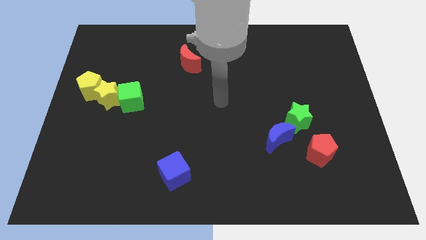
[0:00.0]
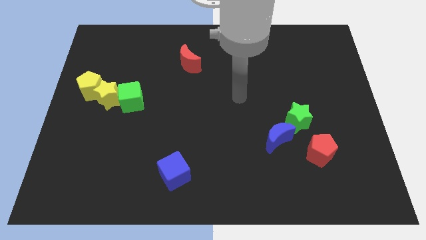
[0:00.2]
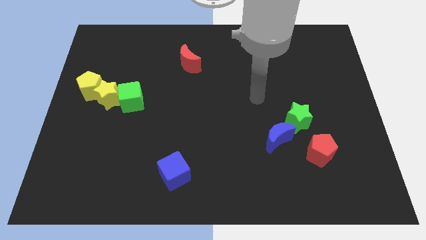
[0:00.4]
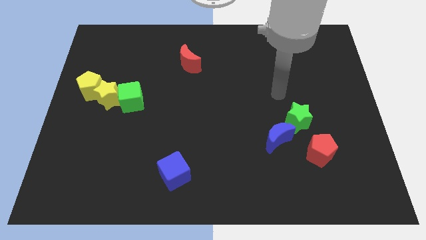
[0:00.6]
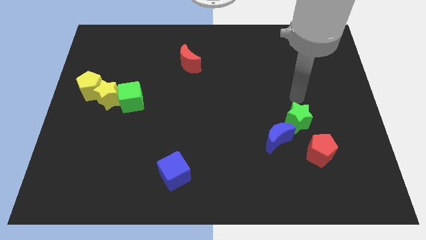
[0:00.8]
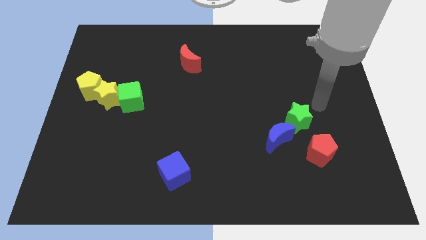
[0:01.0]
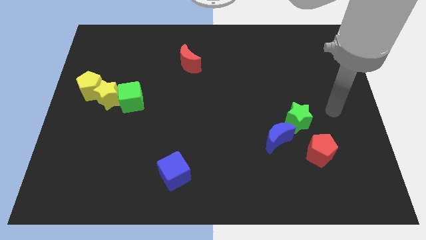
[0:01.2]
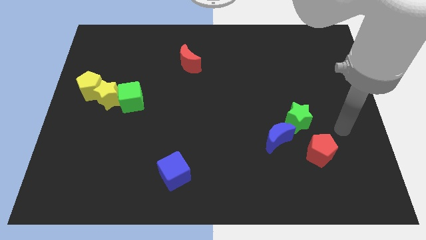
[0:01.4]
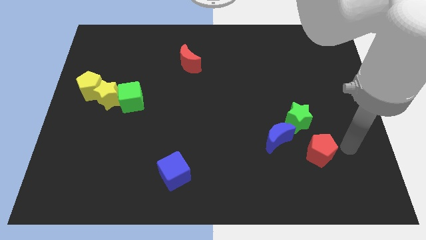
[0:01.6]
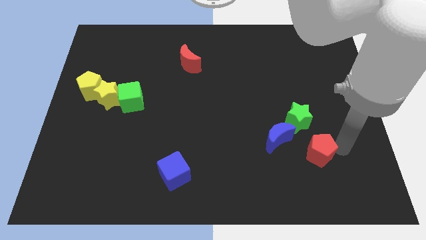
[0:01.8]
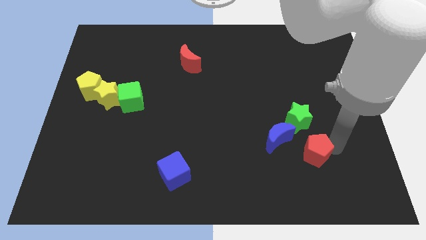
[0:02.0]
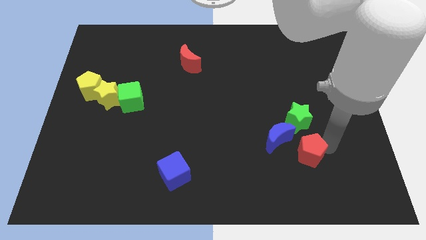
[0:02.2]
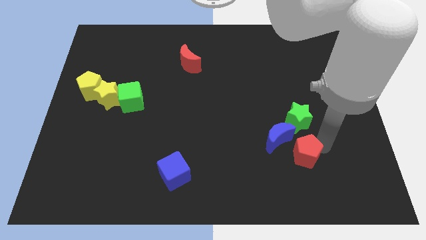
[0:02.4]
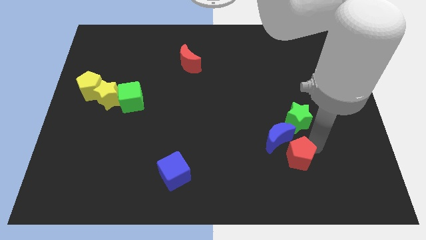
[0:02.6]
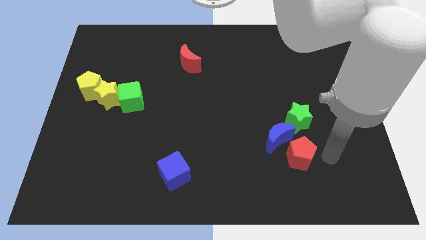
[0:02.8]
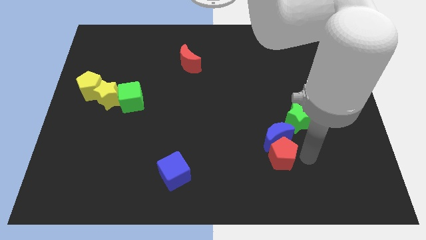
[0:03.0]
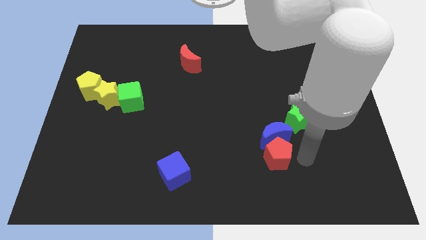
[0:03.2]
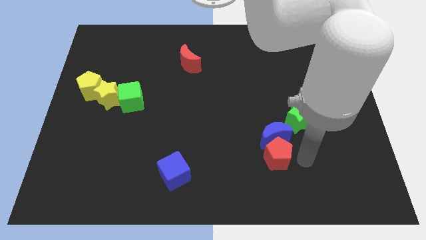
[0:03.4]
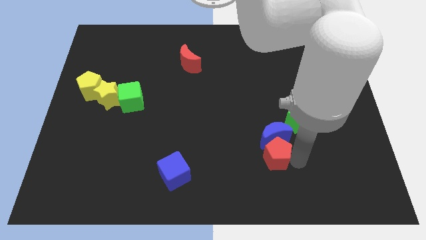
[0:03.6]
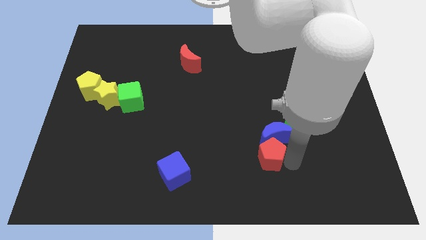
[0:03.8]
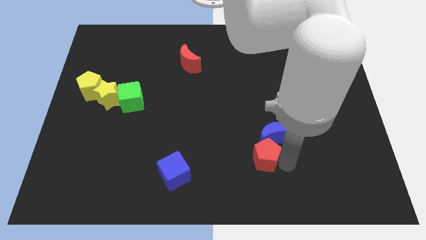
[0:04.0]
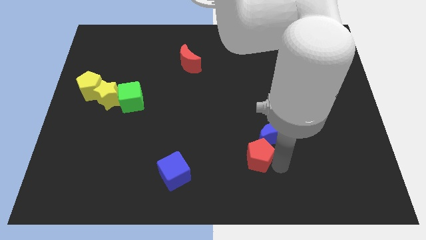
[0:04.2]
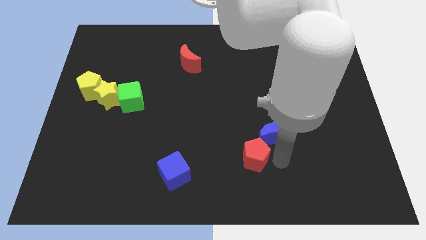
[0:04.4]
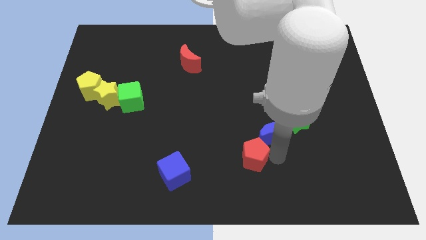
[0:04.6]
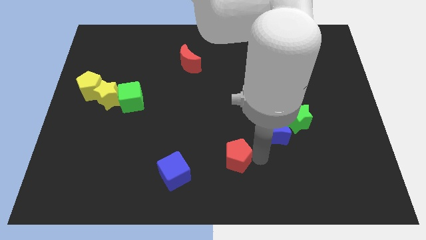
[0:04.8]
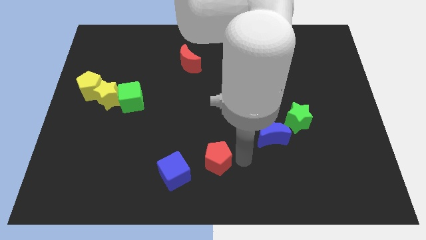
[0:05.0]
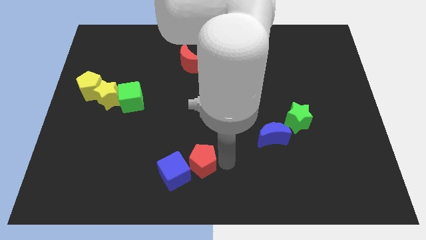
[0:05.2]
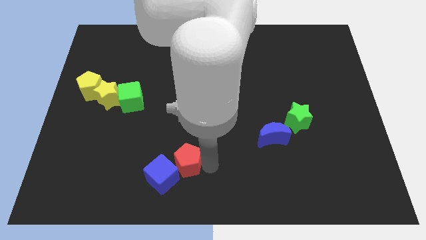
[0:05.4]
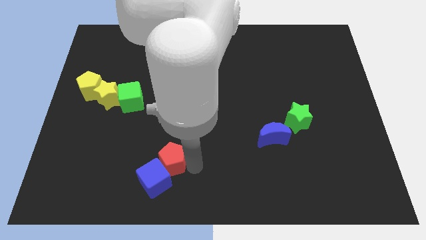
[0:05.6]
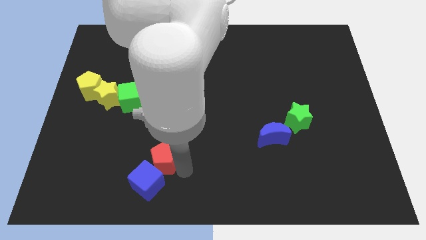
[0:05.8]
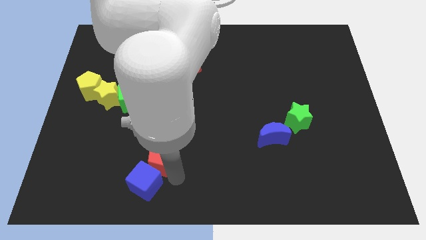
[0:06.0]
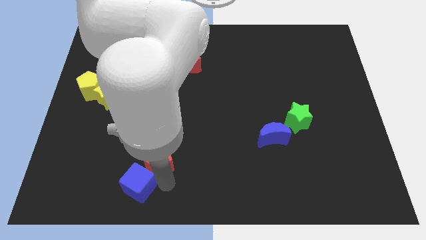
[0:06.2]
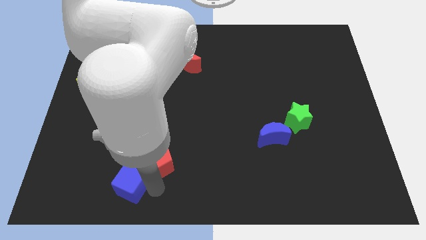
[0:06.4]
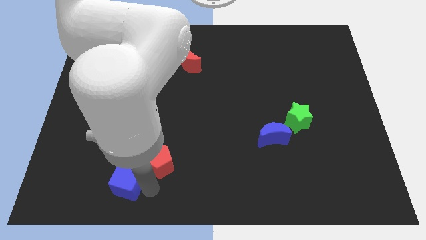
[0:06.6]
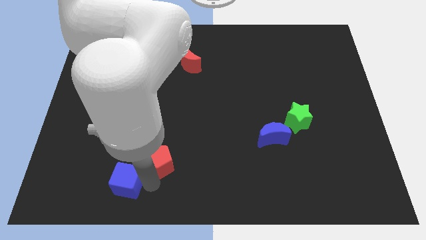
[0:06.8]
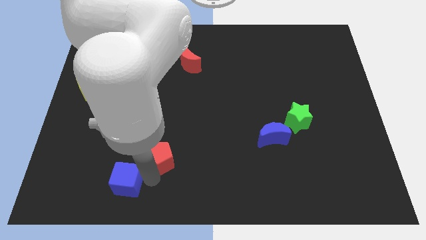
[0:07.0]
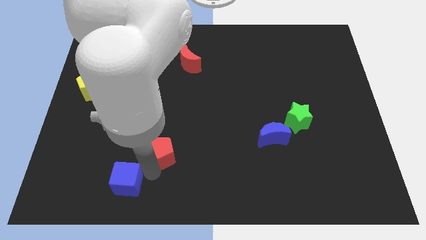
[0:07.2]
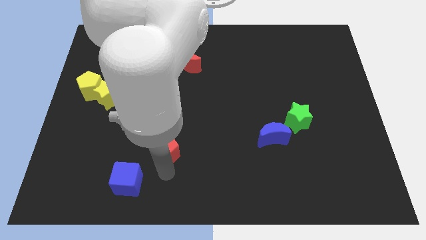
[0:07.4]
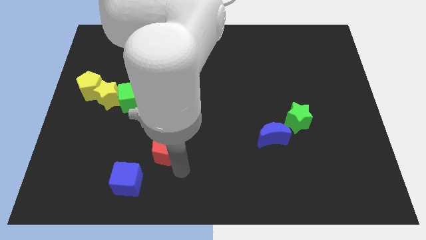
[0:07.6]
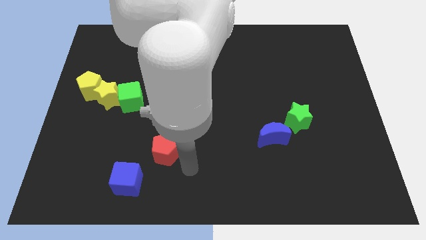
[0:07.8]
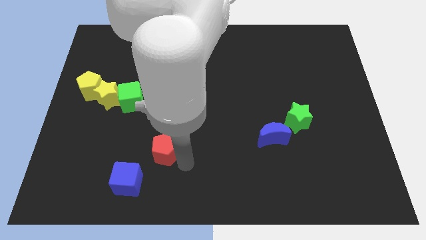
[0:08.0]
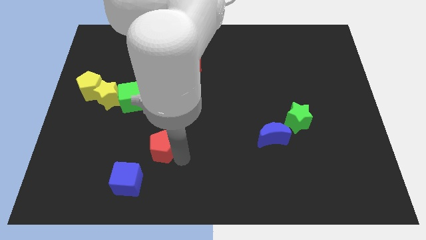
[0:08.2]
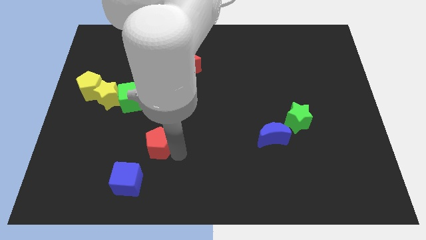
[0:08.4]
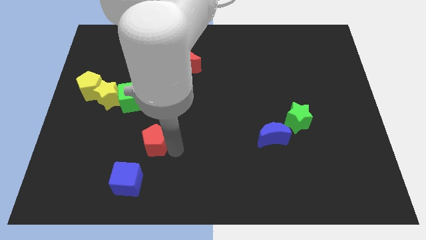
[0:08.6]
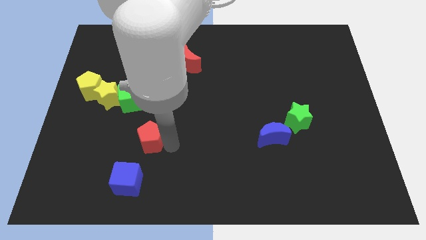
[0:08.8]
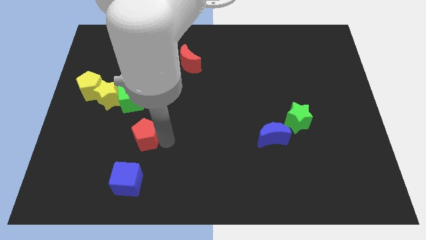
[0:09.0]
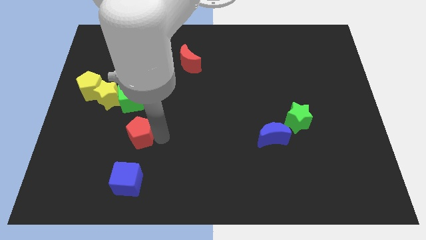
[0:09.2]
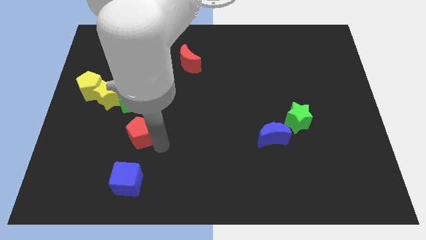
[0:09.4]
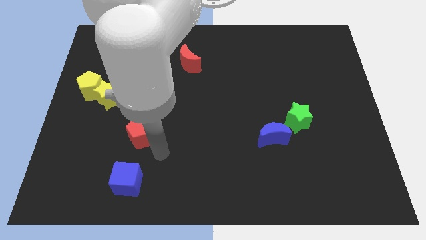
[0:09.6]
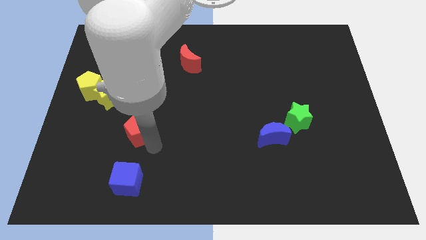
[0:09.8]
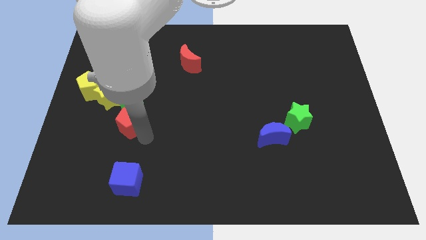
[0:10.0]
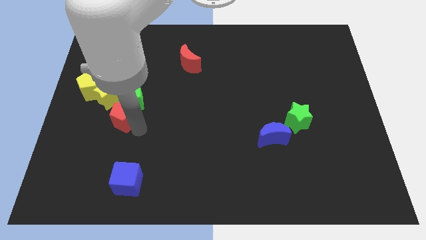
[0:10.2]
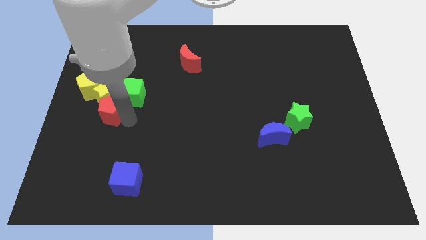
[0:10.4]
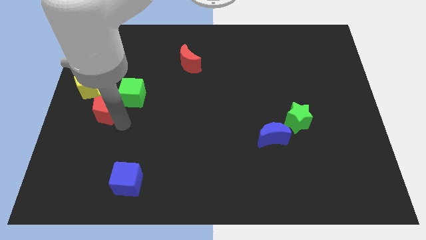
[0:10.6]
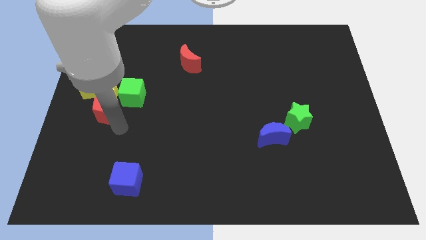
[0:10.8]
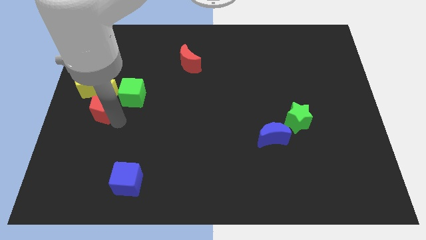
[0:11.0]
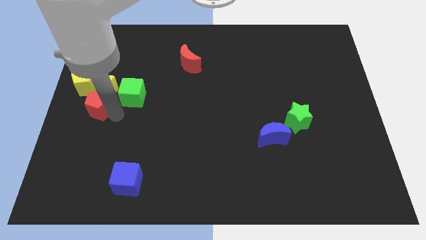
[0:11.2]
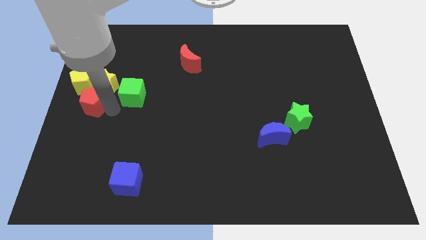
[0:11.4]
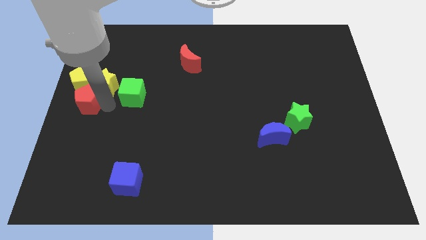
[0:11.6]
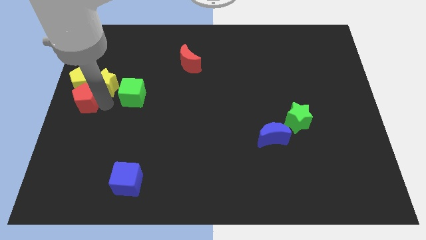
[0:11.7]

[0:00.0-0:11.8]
slide the red pentagon to the yellow pentagon

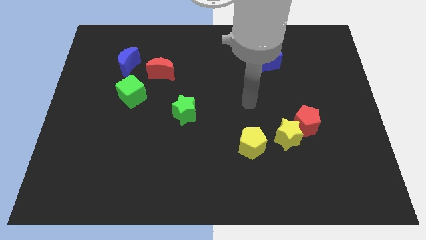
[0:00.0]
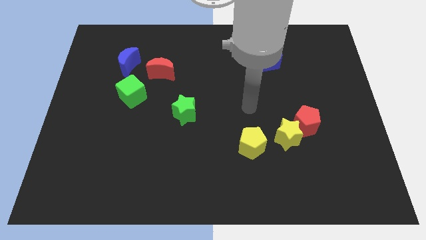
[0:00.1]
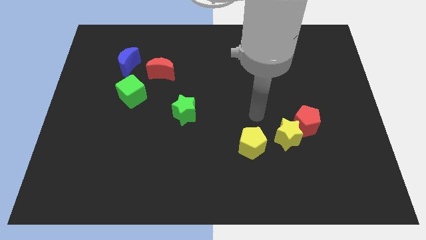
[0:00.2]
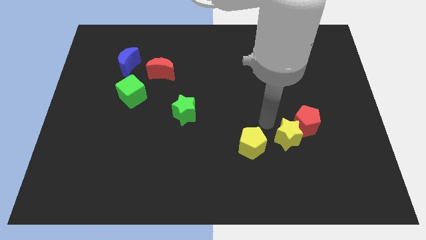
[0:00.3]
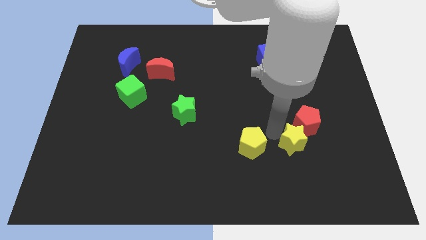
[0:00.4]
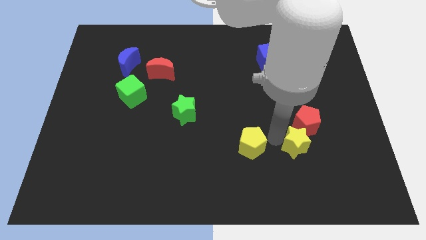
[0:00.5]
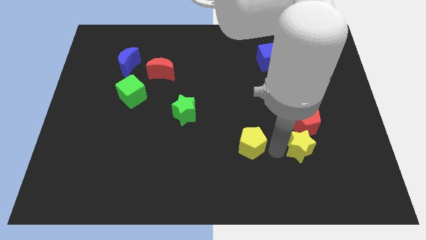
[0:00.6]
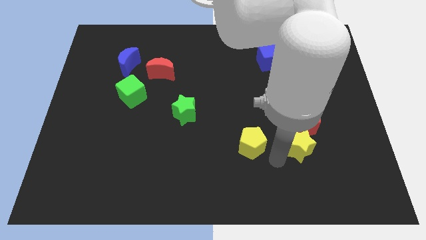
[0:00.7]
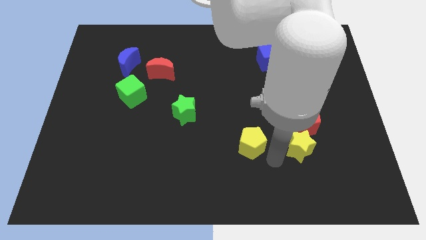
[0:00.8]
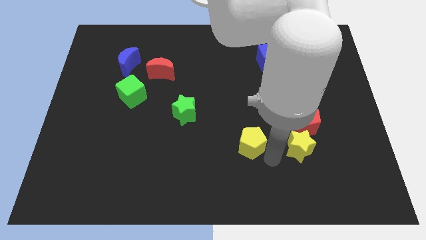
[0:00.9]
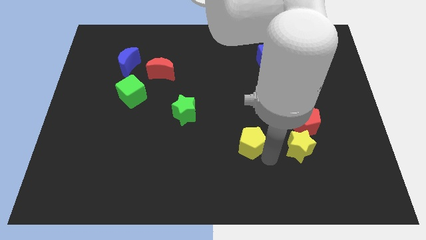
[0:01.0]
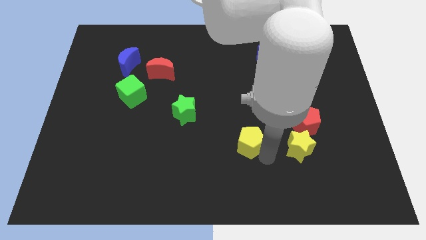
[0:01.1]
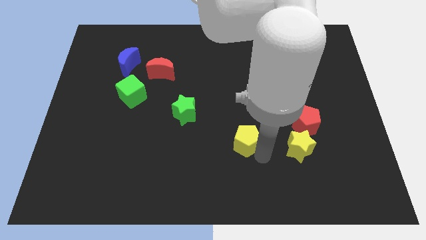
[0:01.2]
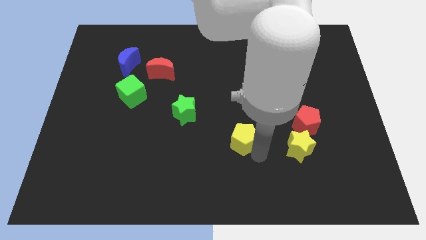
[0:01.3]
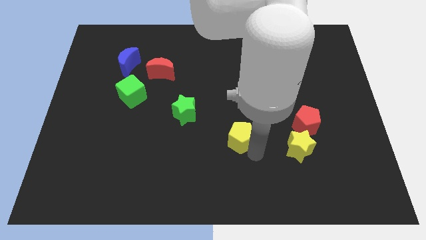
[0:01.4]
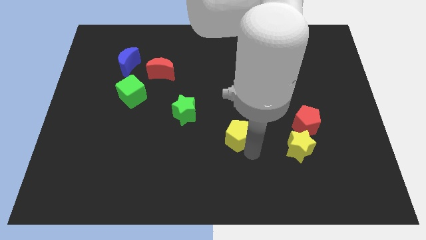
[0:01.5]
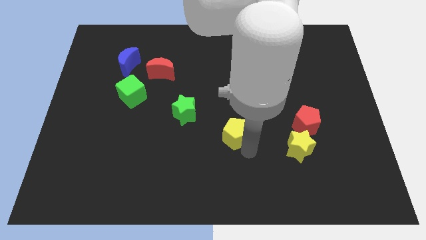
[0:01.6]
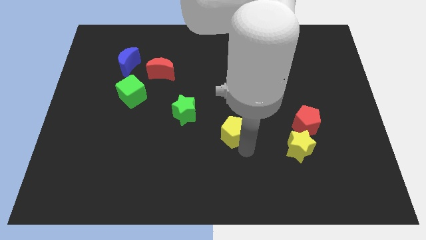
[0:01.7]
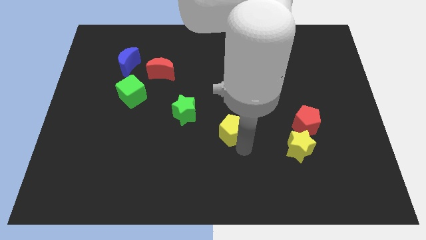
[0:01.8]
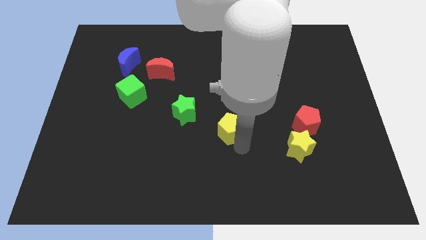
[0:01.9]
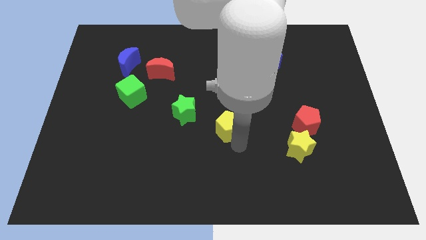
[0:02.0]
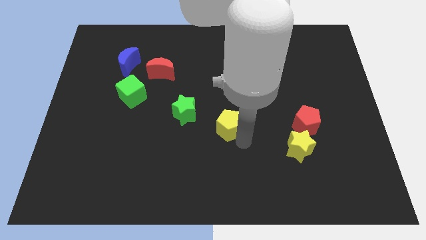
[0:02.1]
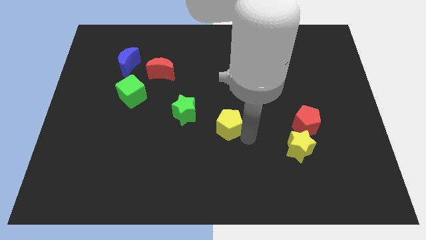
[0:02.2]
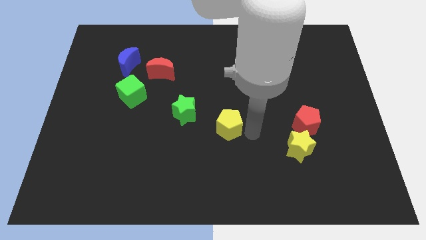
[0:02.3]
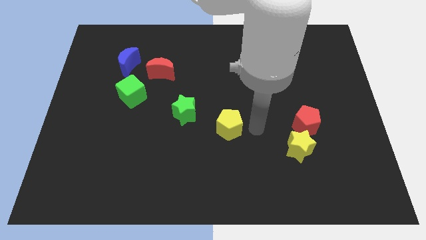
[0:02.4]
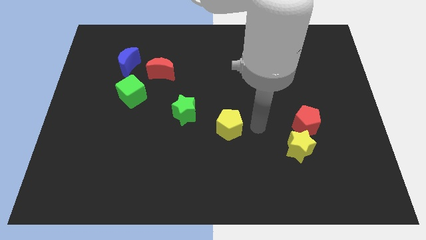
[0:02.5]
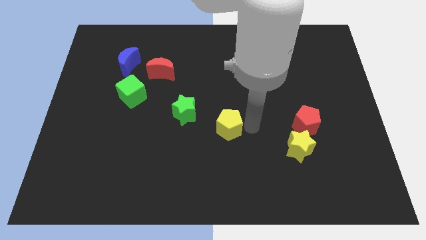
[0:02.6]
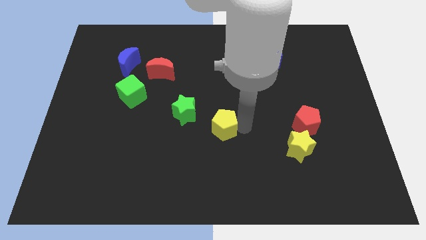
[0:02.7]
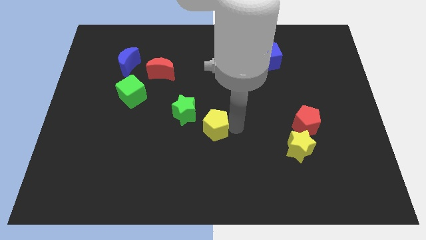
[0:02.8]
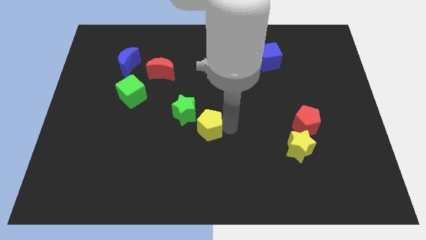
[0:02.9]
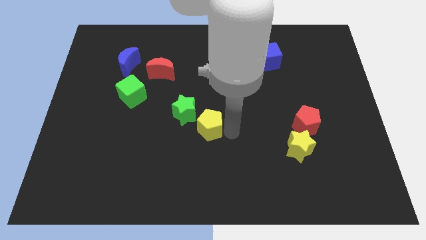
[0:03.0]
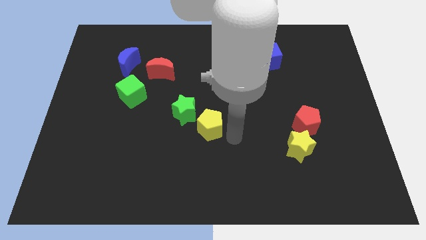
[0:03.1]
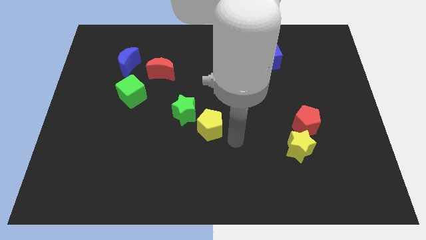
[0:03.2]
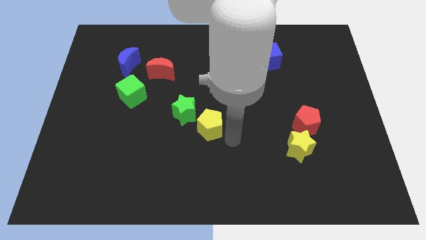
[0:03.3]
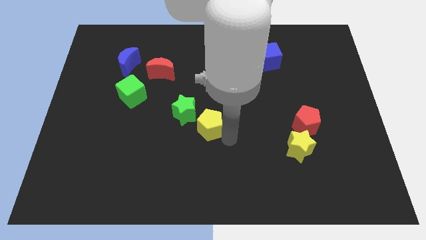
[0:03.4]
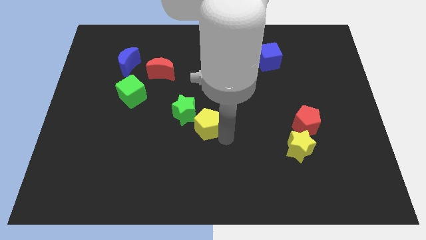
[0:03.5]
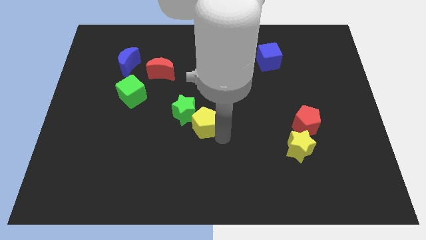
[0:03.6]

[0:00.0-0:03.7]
push the yellow pentagon towards the green star
